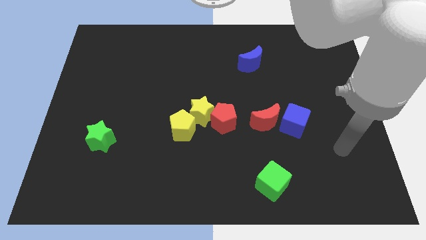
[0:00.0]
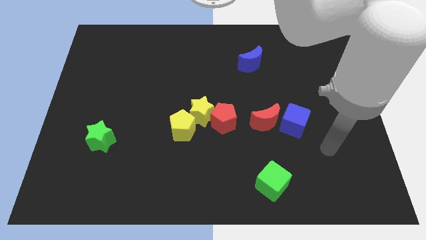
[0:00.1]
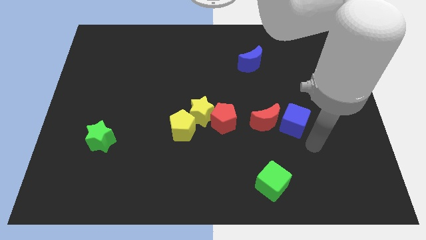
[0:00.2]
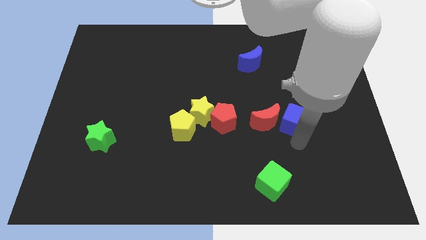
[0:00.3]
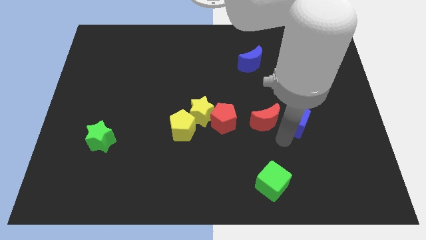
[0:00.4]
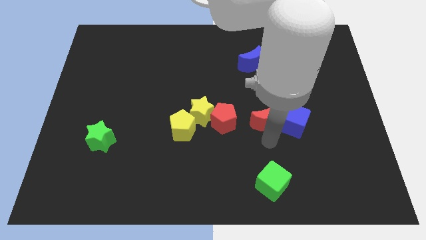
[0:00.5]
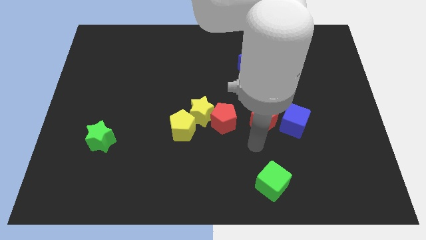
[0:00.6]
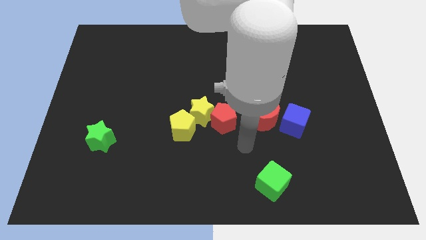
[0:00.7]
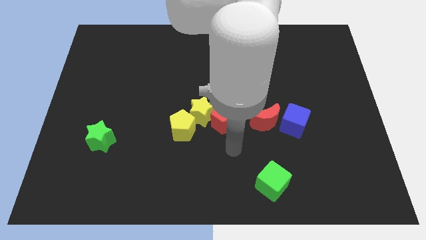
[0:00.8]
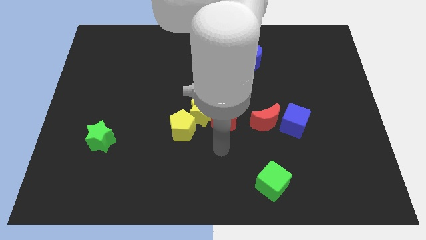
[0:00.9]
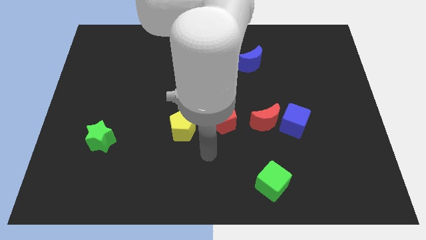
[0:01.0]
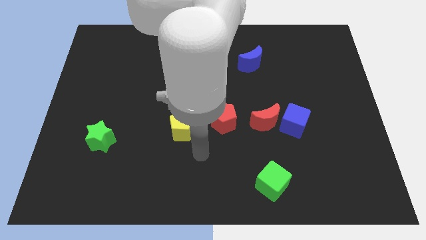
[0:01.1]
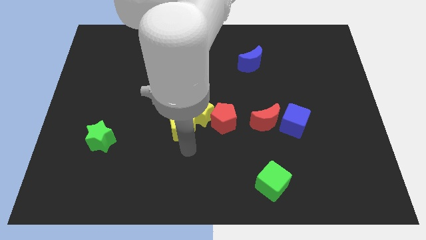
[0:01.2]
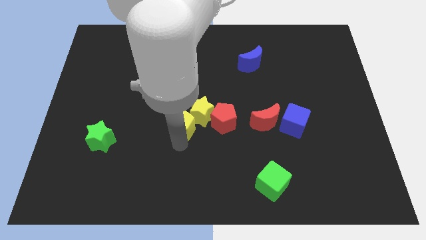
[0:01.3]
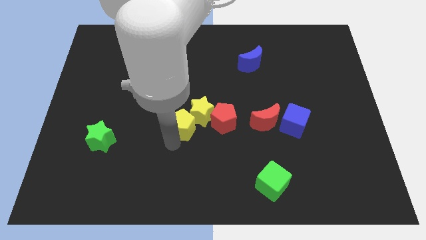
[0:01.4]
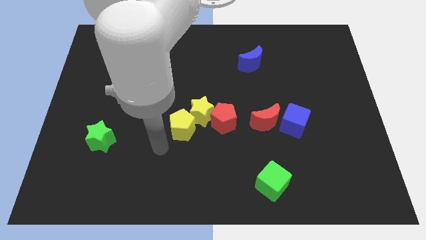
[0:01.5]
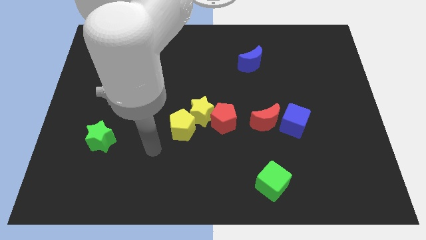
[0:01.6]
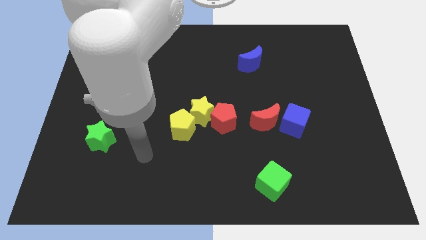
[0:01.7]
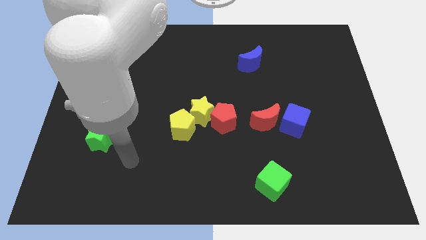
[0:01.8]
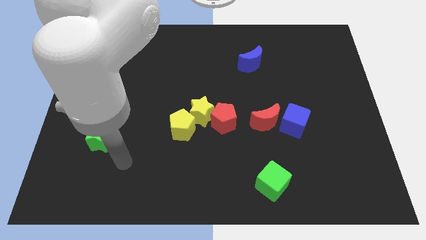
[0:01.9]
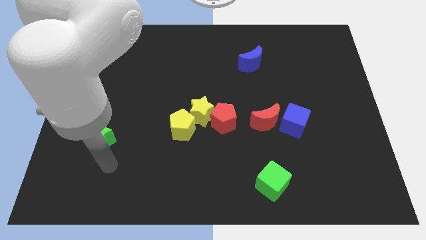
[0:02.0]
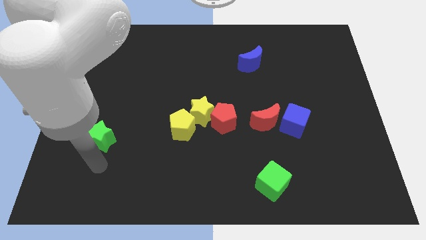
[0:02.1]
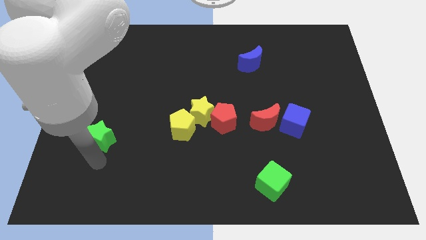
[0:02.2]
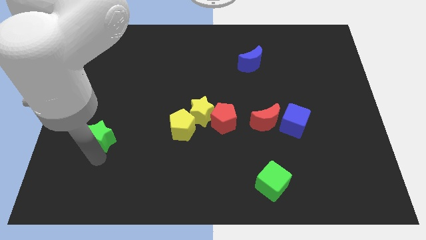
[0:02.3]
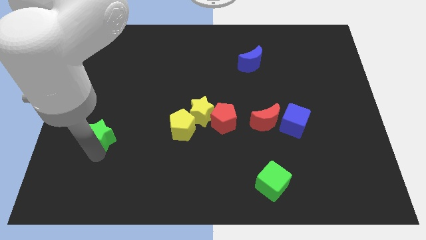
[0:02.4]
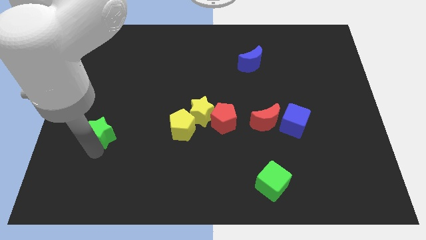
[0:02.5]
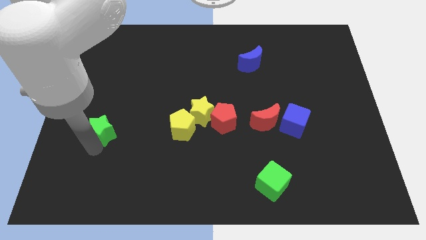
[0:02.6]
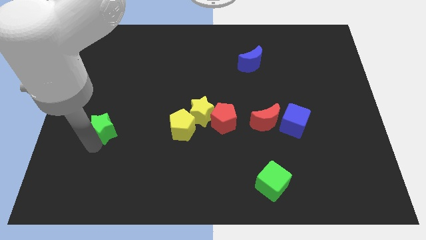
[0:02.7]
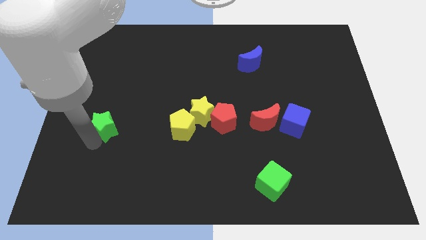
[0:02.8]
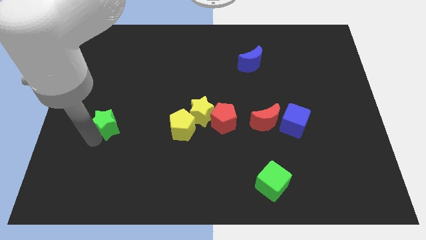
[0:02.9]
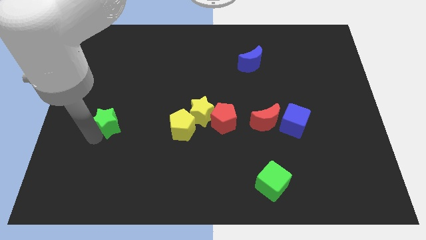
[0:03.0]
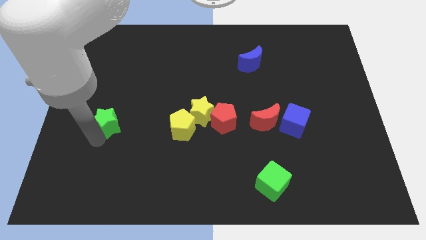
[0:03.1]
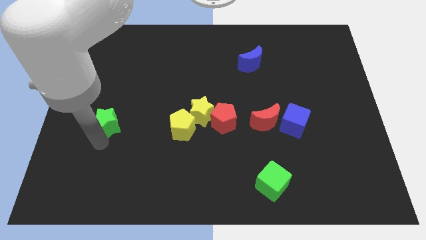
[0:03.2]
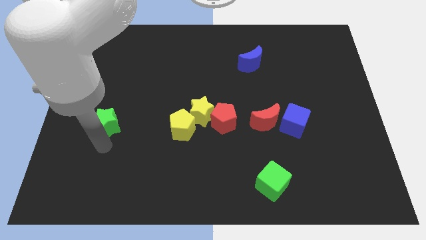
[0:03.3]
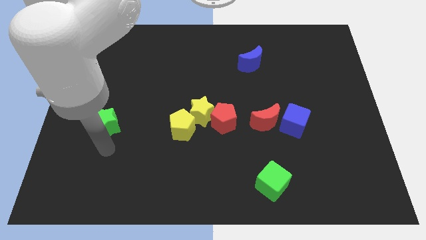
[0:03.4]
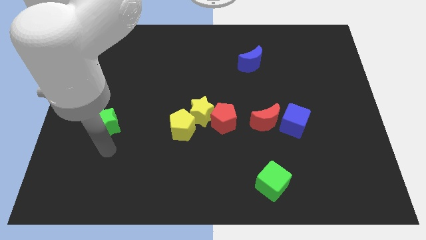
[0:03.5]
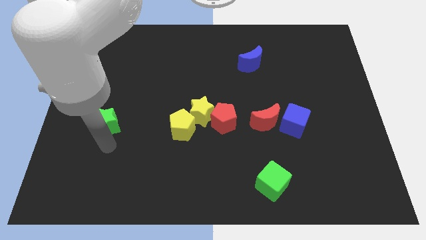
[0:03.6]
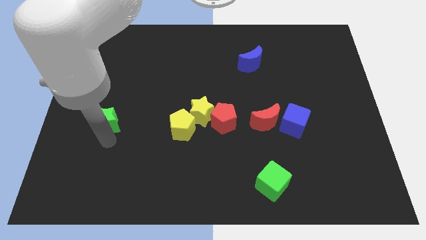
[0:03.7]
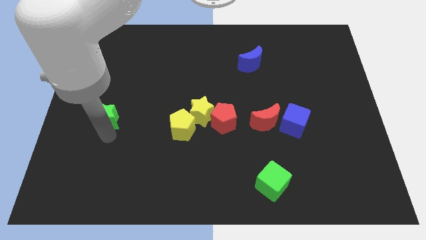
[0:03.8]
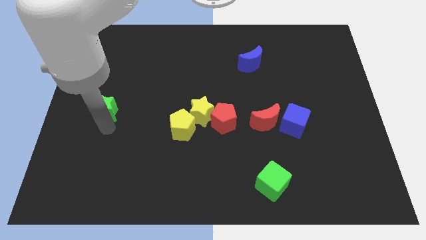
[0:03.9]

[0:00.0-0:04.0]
slide the green star upwards a bit

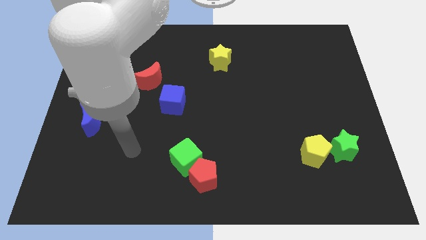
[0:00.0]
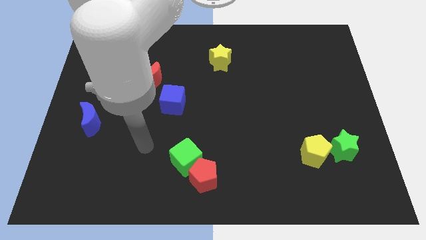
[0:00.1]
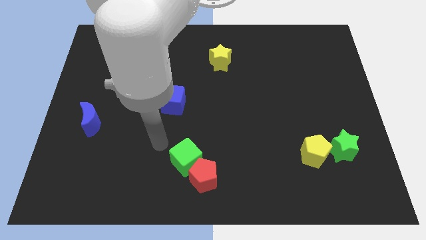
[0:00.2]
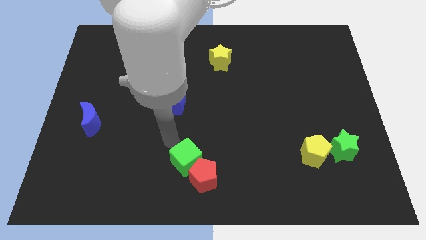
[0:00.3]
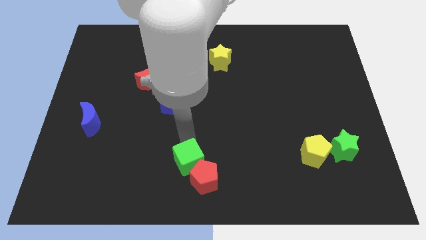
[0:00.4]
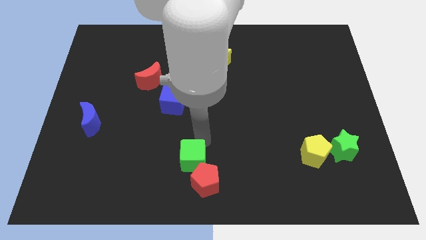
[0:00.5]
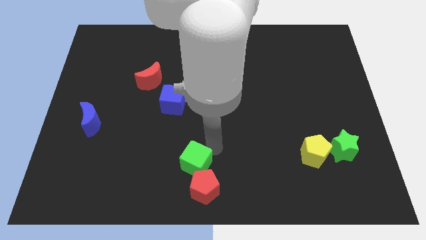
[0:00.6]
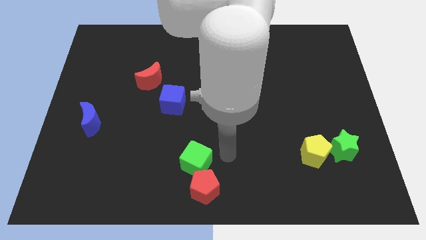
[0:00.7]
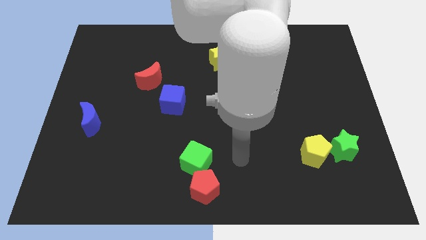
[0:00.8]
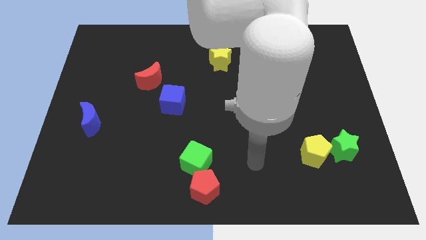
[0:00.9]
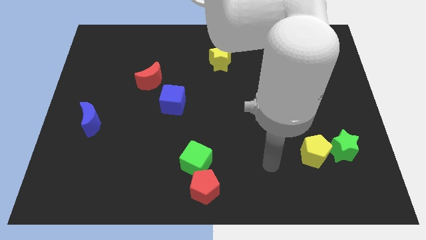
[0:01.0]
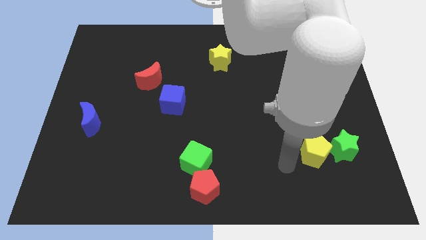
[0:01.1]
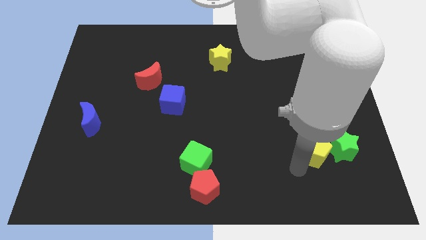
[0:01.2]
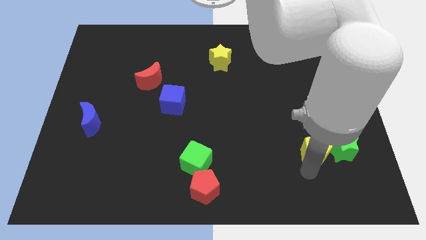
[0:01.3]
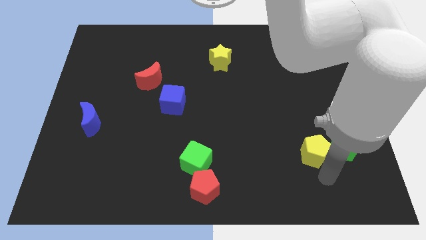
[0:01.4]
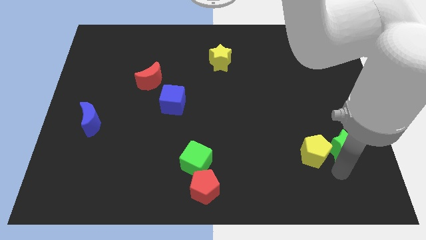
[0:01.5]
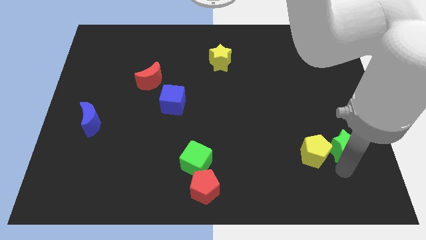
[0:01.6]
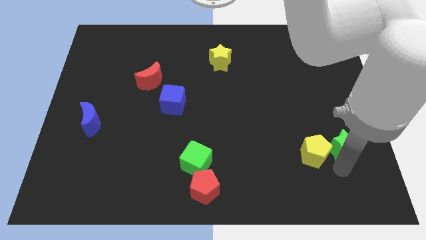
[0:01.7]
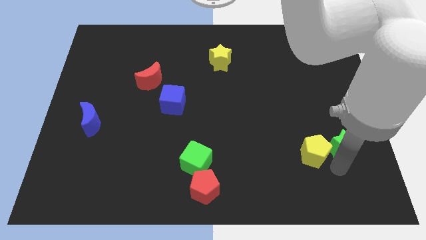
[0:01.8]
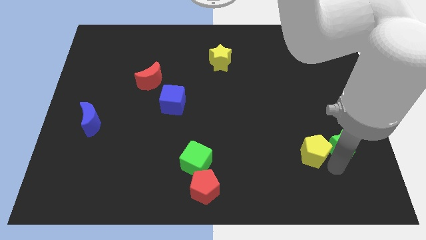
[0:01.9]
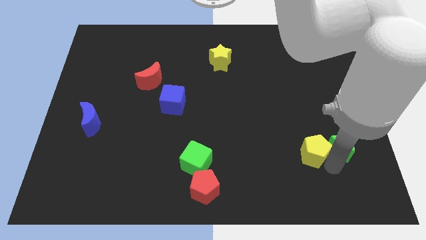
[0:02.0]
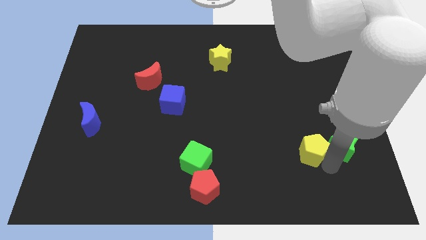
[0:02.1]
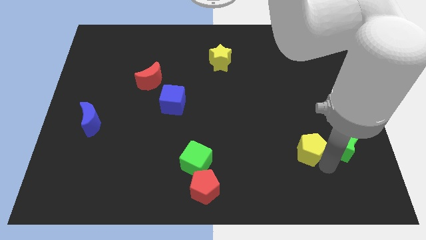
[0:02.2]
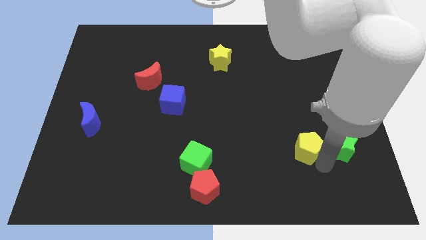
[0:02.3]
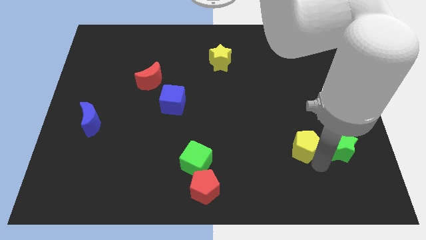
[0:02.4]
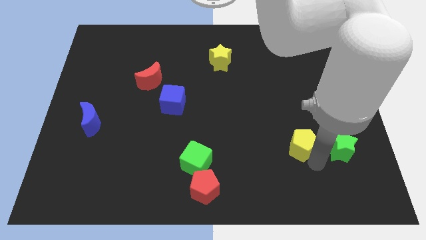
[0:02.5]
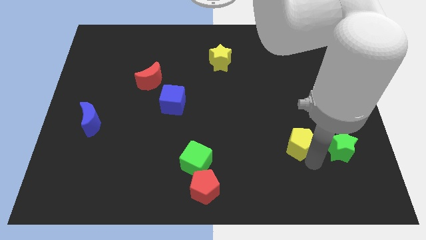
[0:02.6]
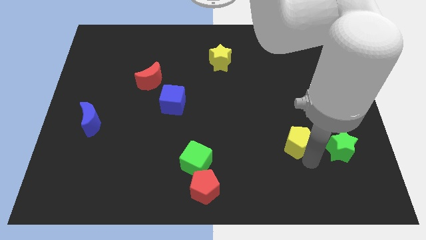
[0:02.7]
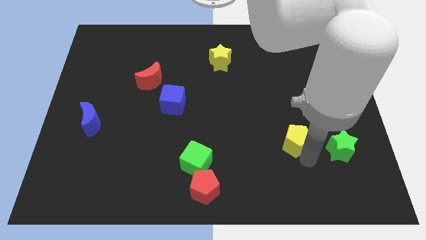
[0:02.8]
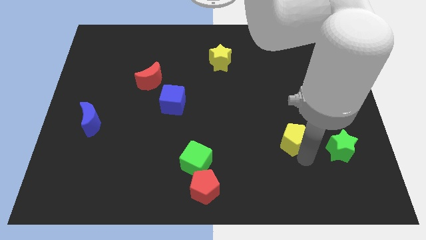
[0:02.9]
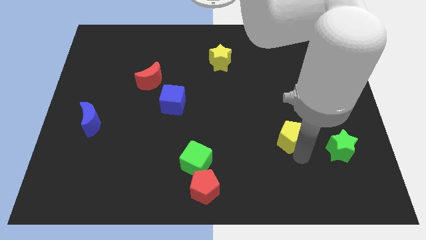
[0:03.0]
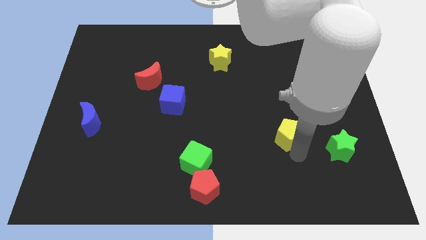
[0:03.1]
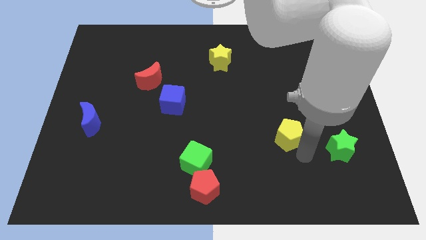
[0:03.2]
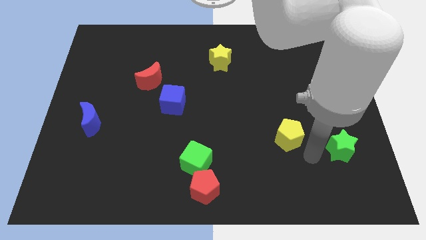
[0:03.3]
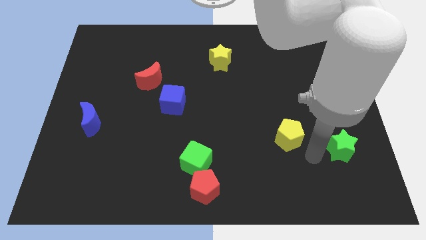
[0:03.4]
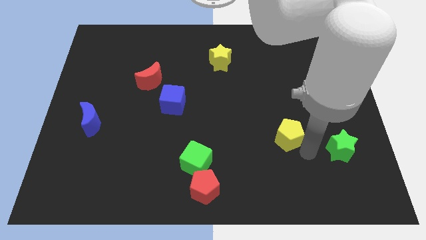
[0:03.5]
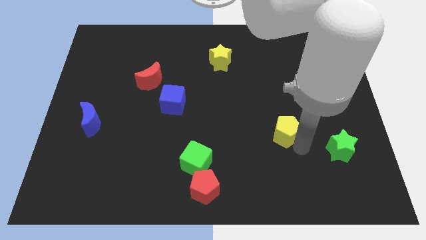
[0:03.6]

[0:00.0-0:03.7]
push the yellow pentagon a little bit upwards and to the left diagonally

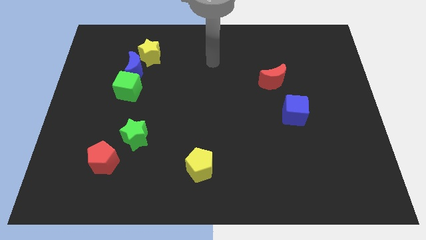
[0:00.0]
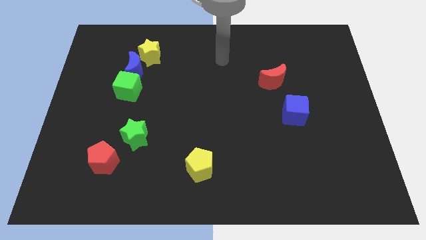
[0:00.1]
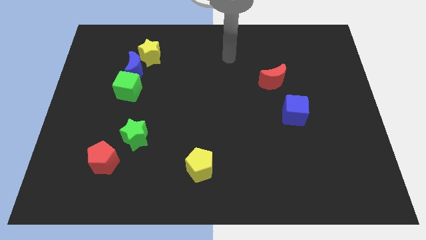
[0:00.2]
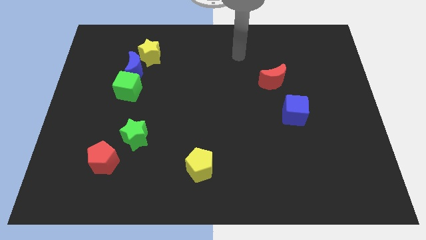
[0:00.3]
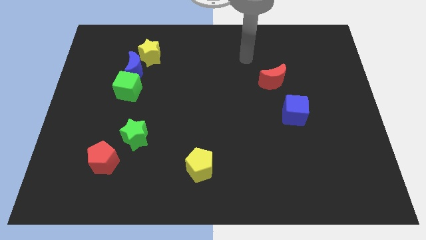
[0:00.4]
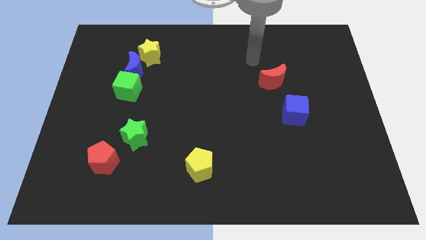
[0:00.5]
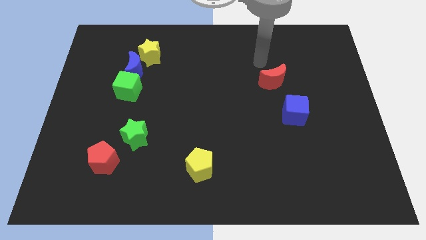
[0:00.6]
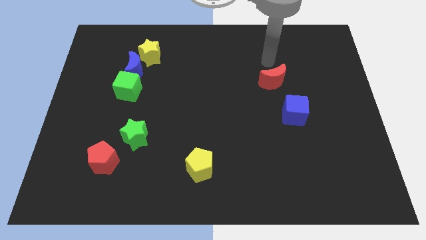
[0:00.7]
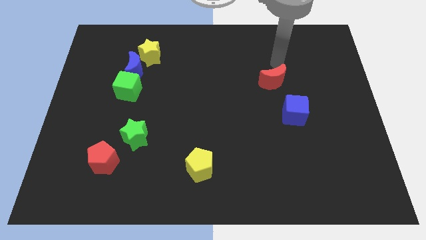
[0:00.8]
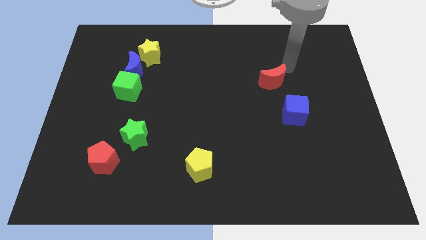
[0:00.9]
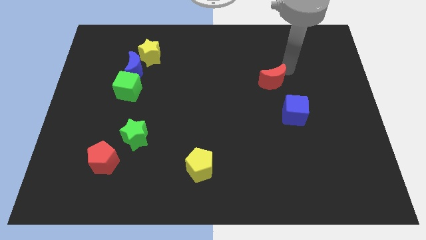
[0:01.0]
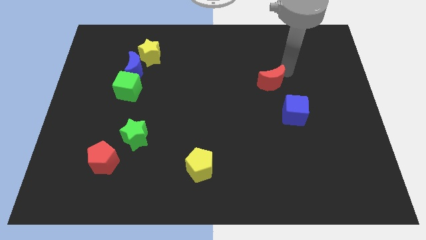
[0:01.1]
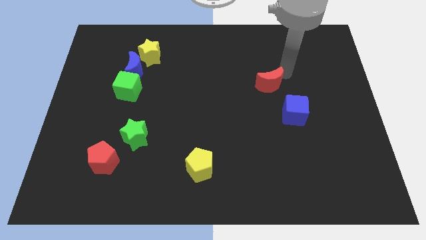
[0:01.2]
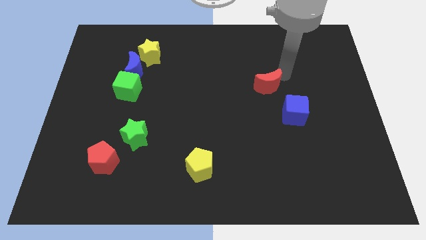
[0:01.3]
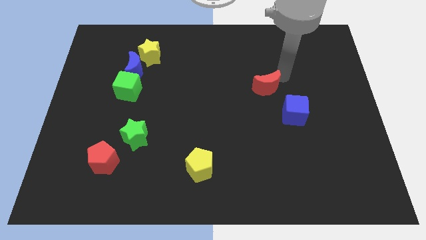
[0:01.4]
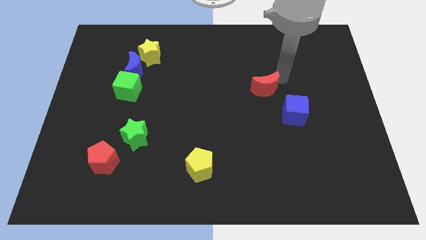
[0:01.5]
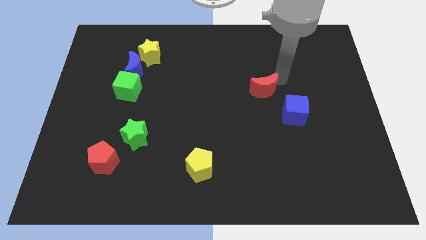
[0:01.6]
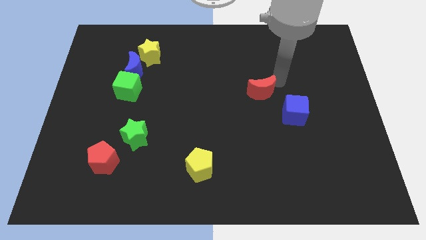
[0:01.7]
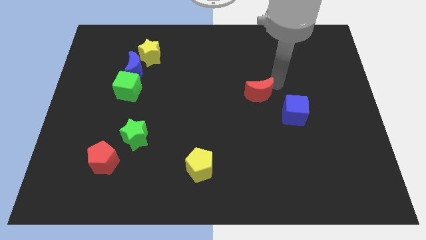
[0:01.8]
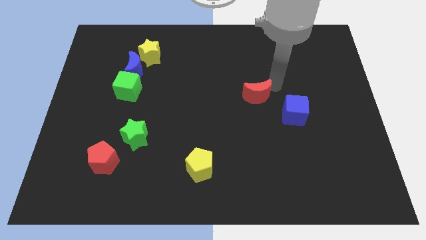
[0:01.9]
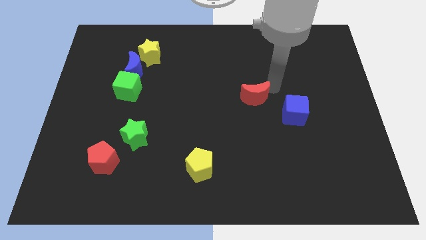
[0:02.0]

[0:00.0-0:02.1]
slide the red moon a little bit down and then to the left
